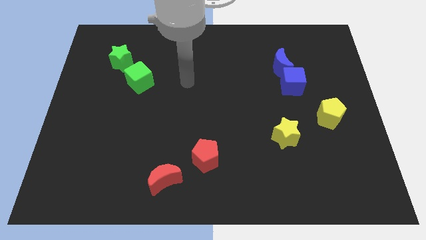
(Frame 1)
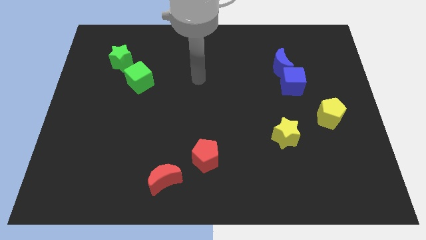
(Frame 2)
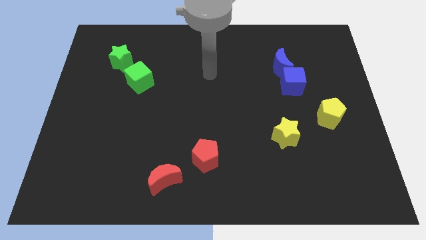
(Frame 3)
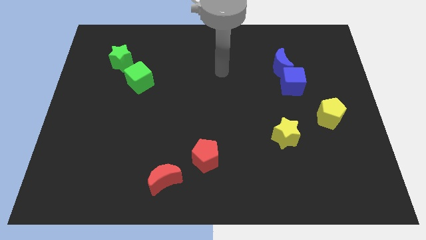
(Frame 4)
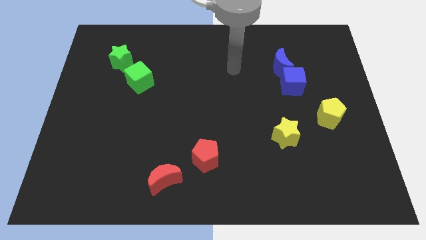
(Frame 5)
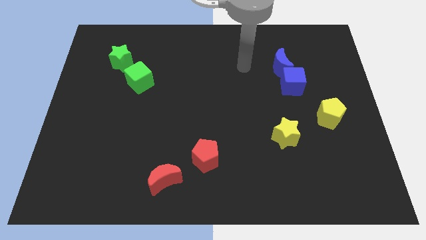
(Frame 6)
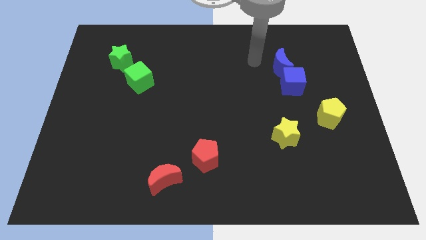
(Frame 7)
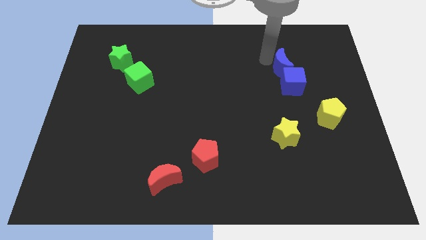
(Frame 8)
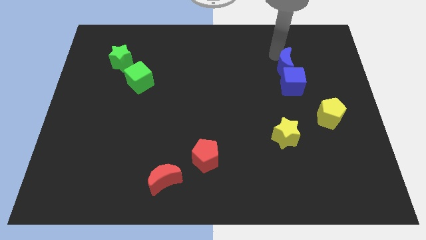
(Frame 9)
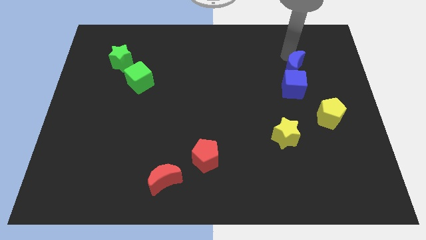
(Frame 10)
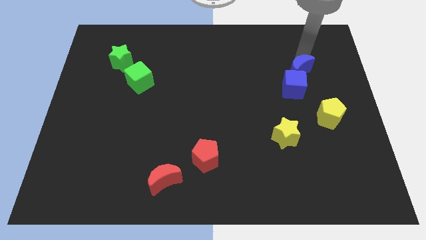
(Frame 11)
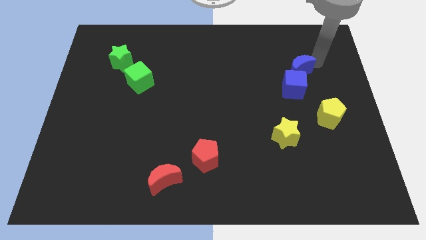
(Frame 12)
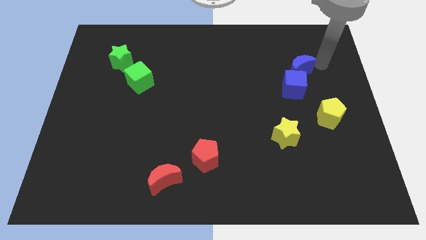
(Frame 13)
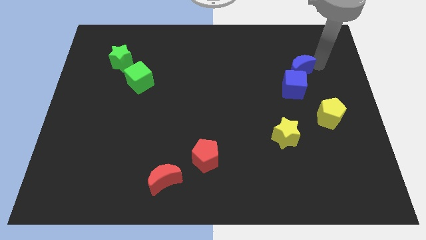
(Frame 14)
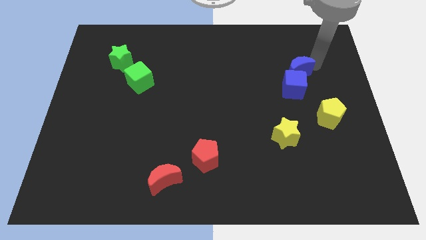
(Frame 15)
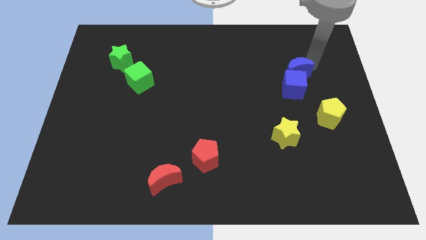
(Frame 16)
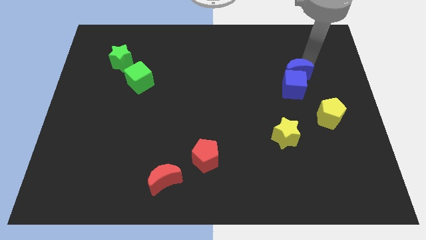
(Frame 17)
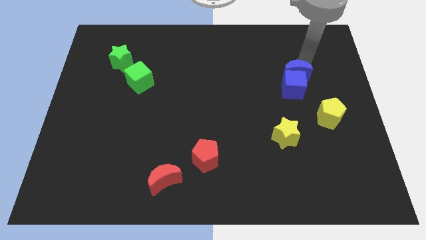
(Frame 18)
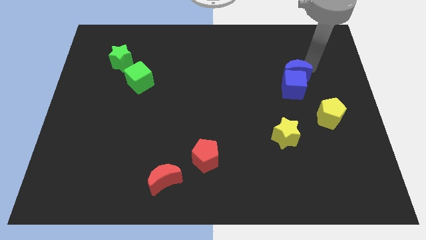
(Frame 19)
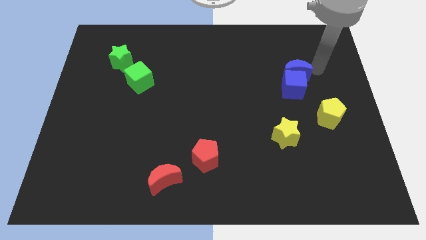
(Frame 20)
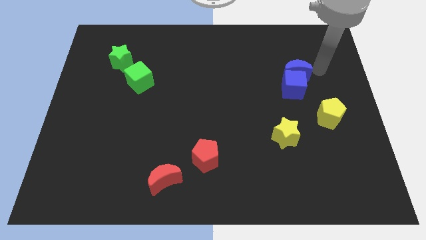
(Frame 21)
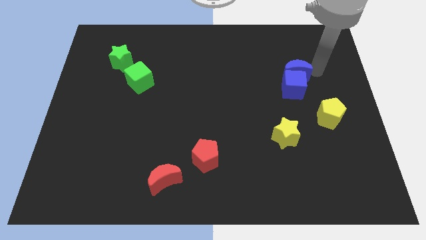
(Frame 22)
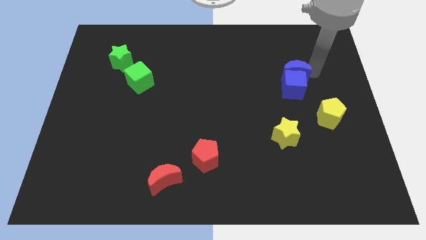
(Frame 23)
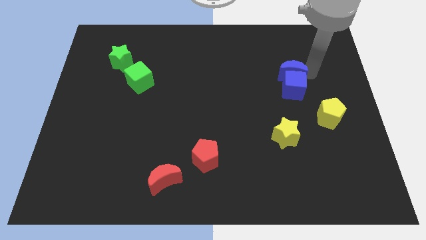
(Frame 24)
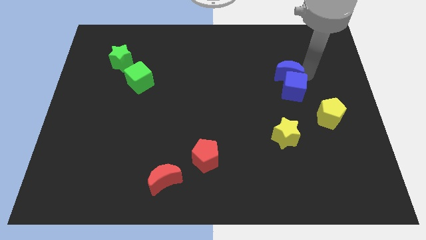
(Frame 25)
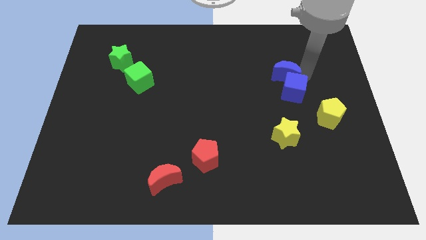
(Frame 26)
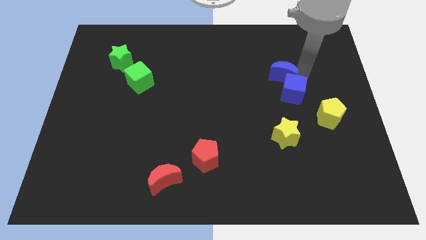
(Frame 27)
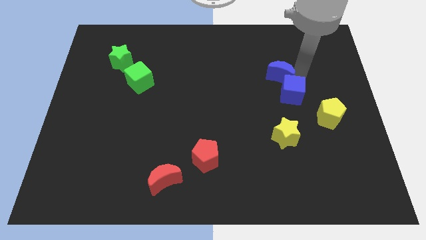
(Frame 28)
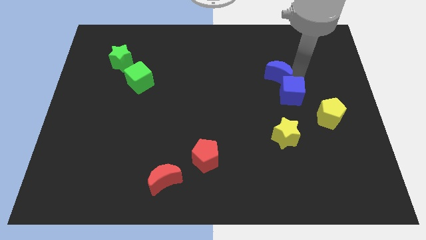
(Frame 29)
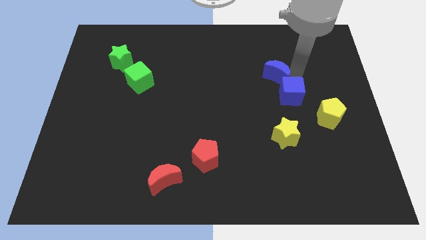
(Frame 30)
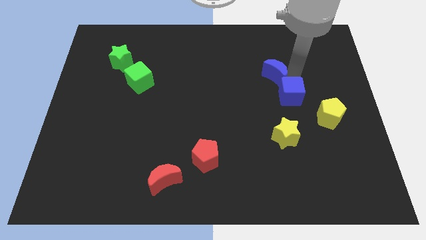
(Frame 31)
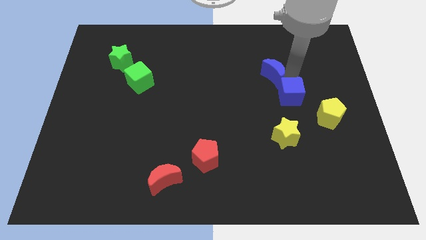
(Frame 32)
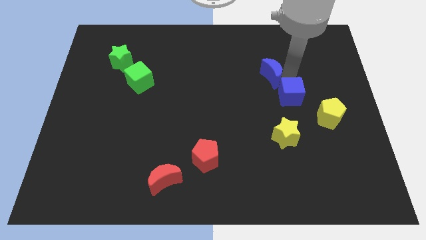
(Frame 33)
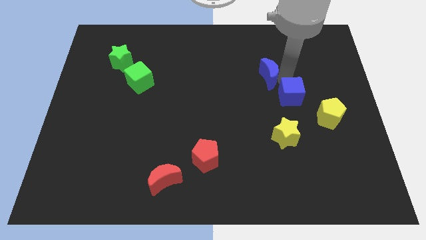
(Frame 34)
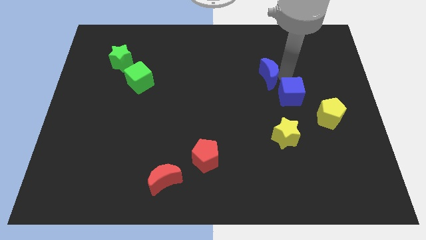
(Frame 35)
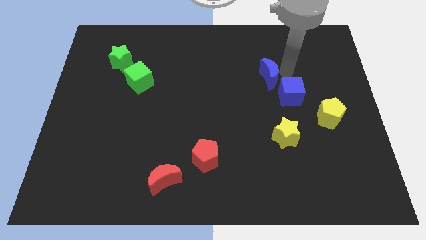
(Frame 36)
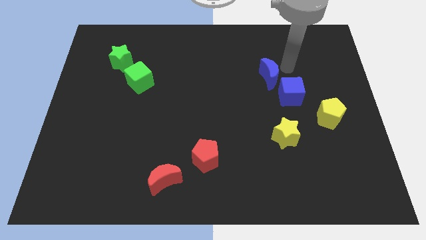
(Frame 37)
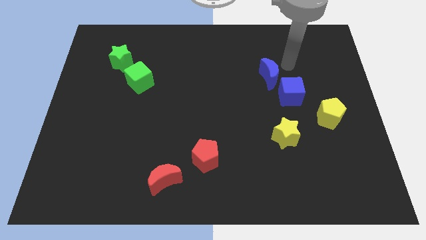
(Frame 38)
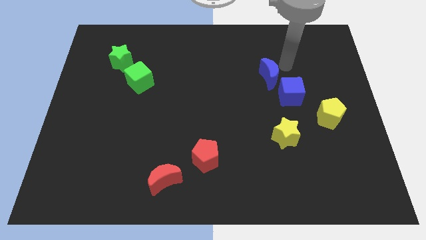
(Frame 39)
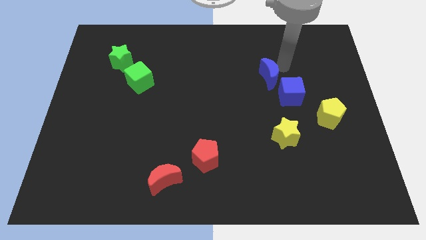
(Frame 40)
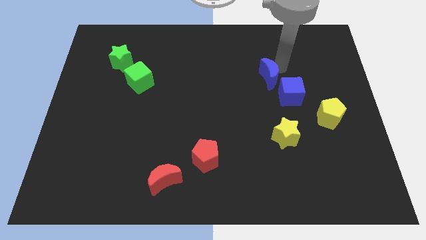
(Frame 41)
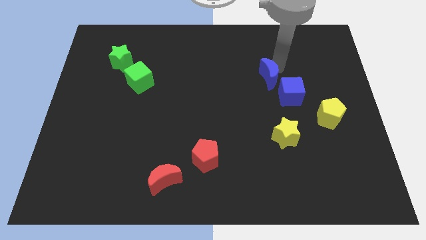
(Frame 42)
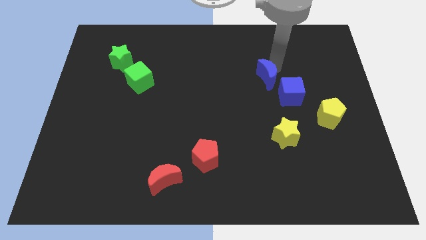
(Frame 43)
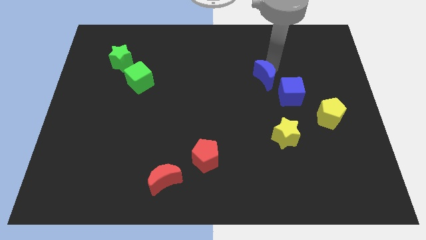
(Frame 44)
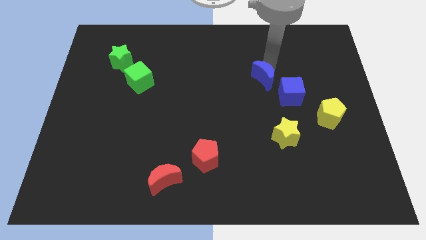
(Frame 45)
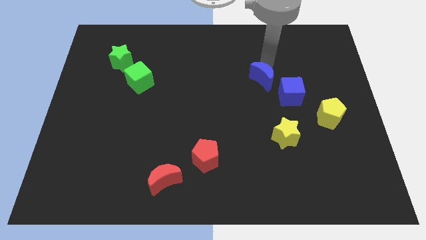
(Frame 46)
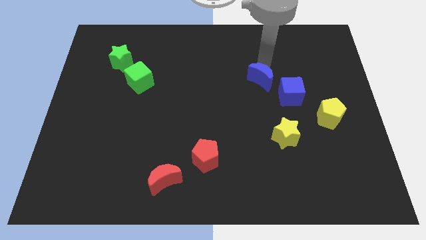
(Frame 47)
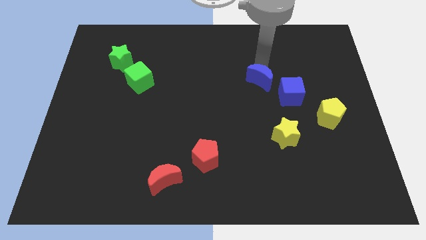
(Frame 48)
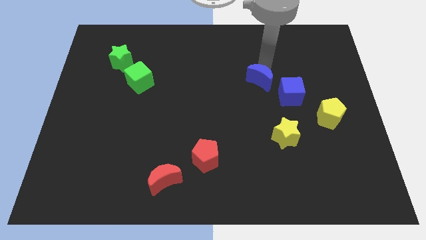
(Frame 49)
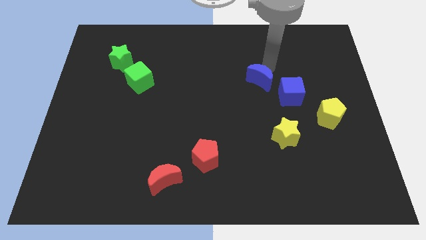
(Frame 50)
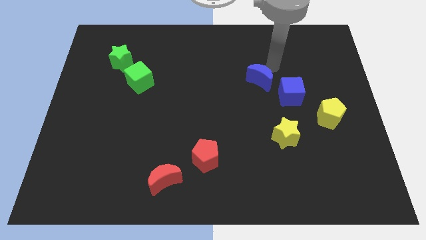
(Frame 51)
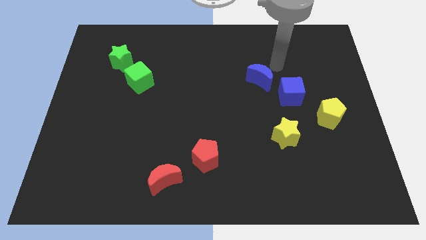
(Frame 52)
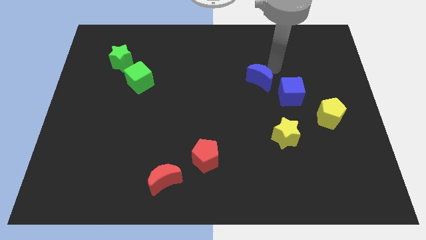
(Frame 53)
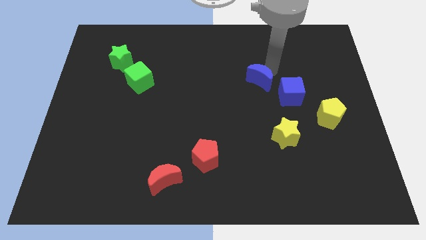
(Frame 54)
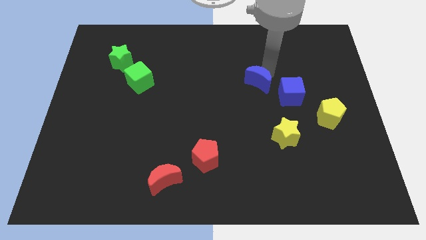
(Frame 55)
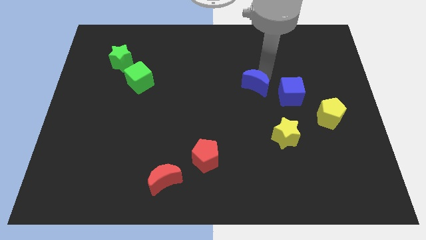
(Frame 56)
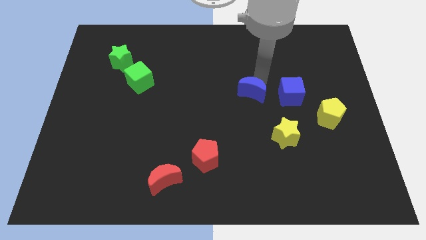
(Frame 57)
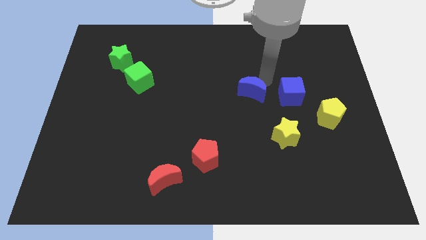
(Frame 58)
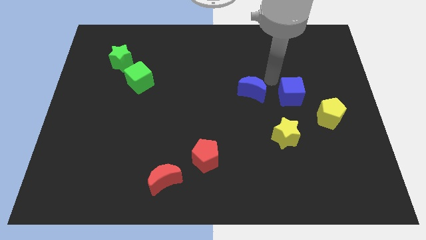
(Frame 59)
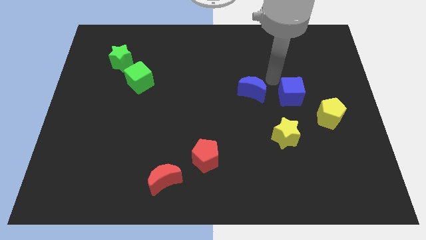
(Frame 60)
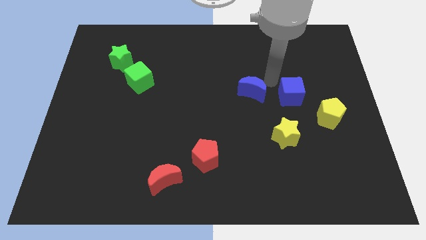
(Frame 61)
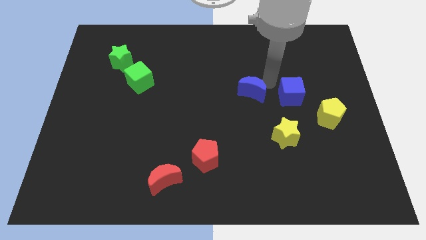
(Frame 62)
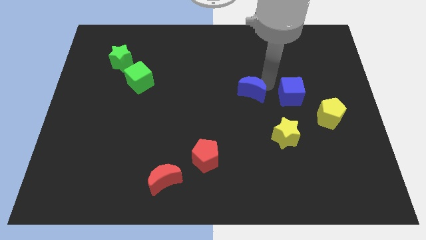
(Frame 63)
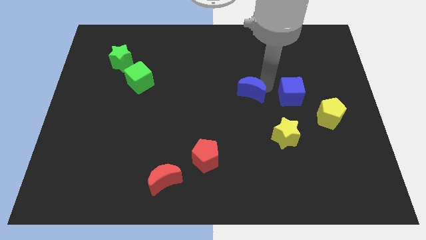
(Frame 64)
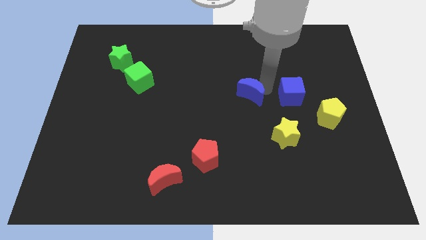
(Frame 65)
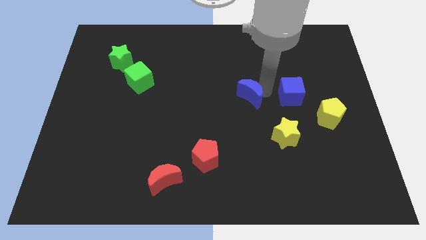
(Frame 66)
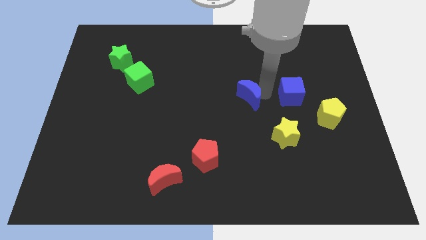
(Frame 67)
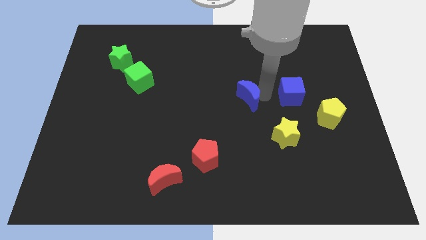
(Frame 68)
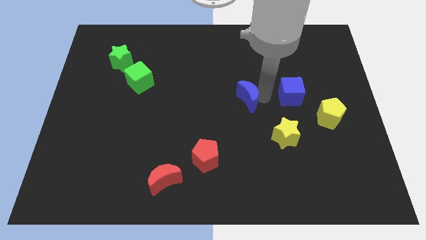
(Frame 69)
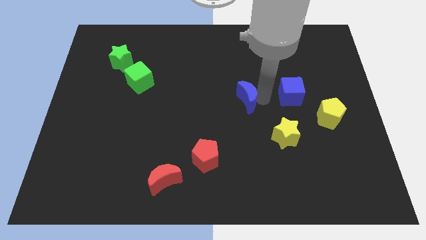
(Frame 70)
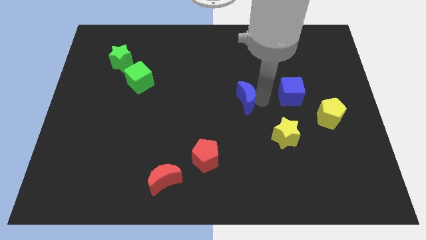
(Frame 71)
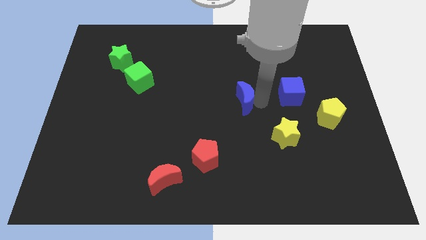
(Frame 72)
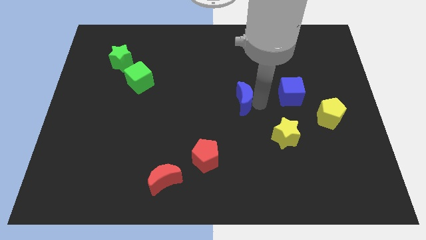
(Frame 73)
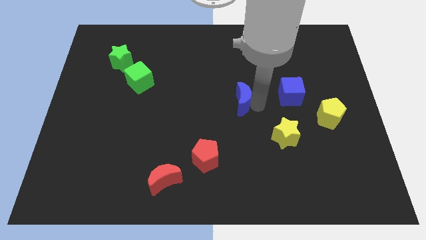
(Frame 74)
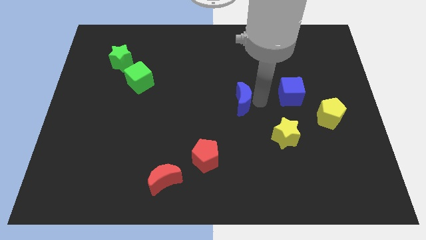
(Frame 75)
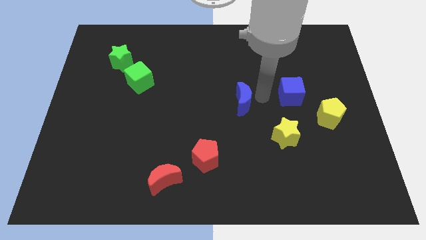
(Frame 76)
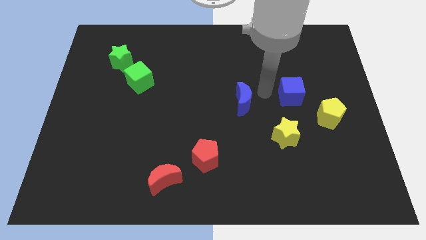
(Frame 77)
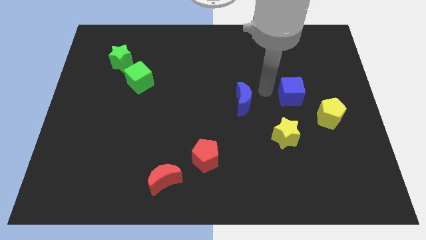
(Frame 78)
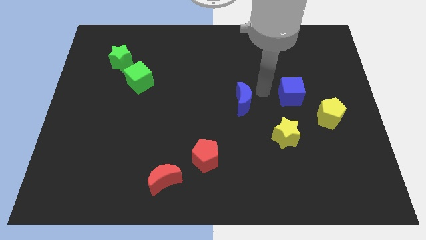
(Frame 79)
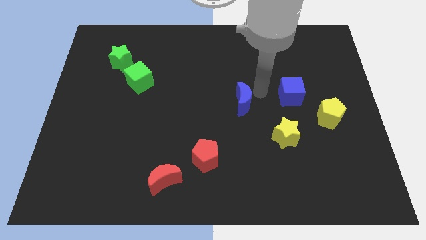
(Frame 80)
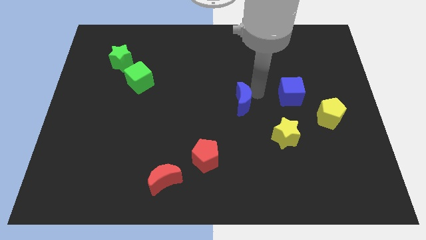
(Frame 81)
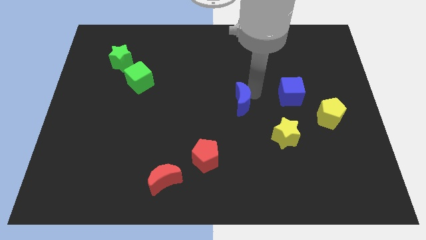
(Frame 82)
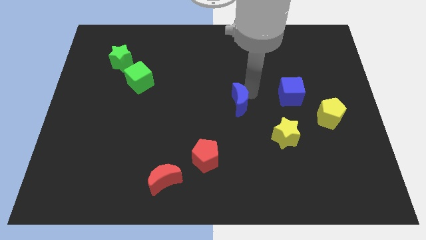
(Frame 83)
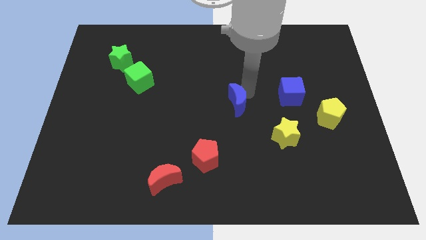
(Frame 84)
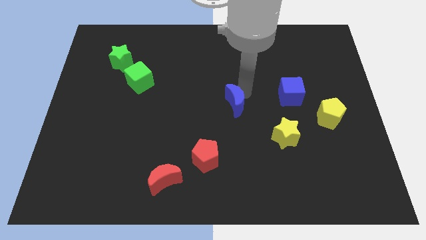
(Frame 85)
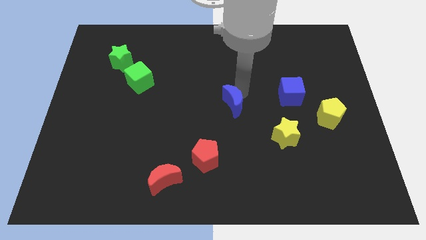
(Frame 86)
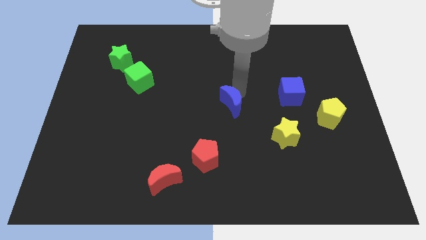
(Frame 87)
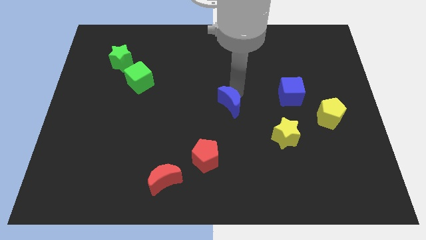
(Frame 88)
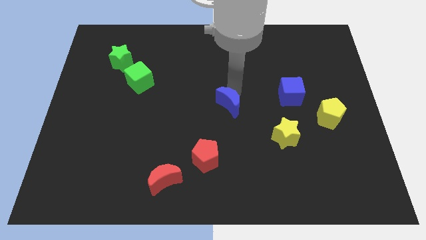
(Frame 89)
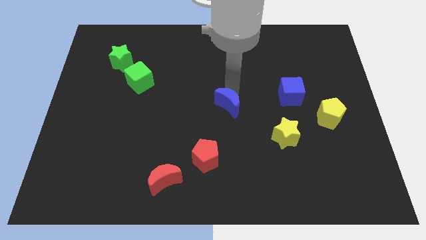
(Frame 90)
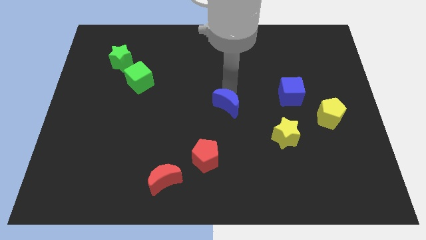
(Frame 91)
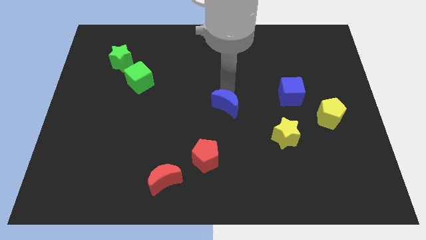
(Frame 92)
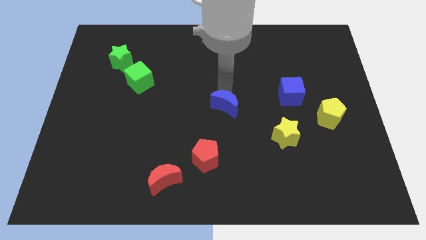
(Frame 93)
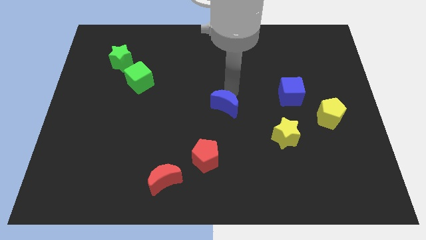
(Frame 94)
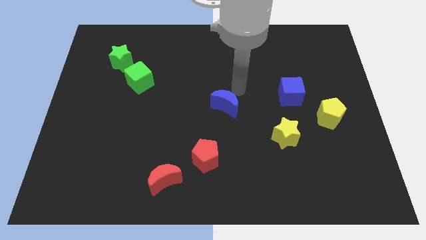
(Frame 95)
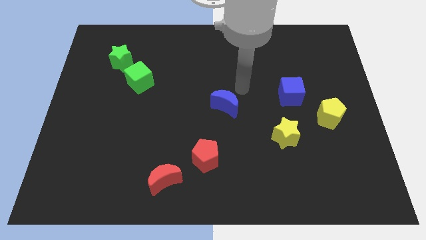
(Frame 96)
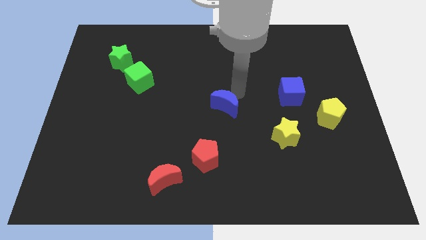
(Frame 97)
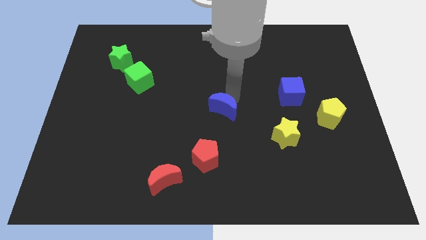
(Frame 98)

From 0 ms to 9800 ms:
slide the blue moon down and to the left
